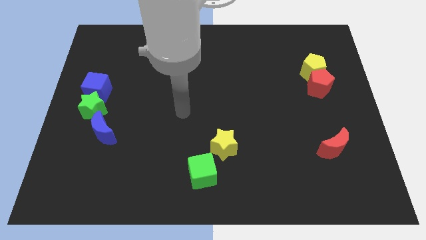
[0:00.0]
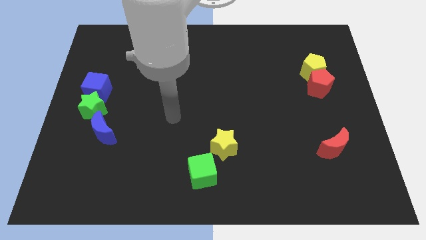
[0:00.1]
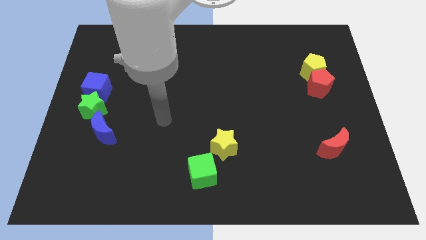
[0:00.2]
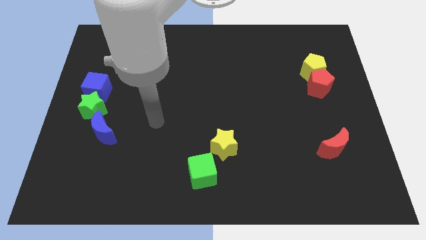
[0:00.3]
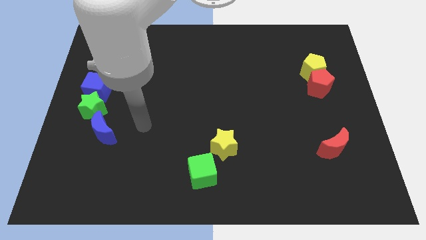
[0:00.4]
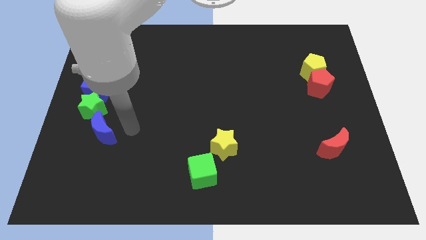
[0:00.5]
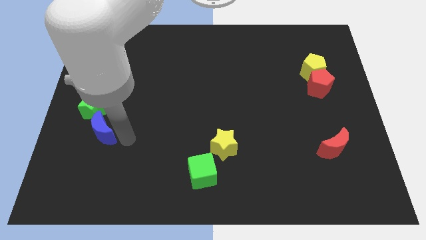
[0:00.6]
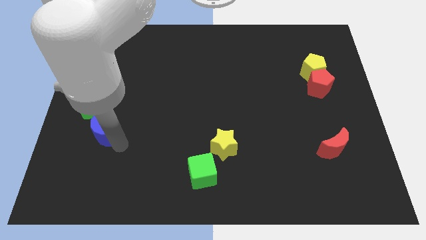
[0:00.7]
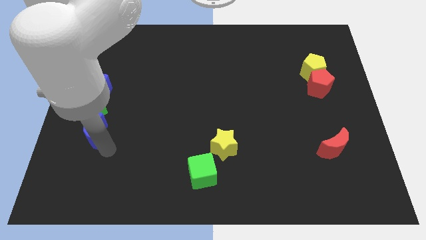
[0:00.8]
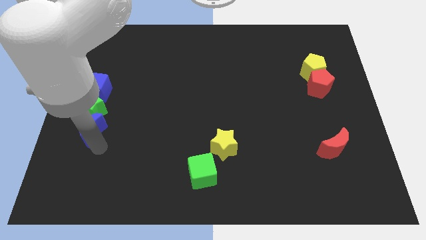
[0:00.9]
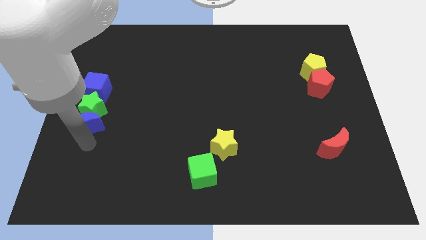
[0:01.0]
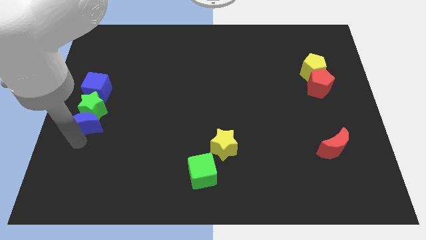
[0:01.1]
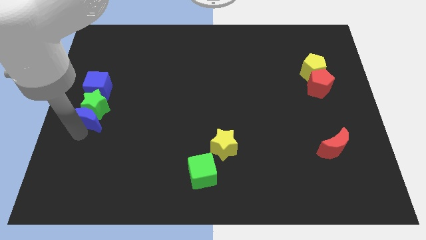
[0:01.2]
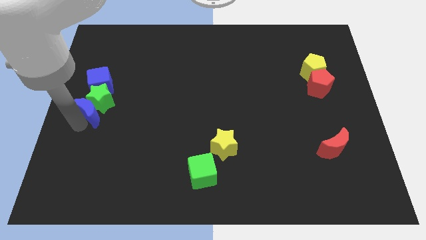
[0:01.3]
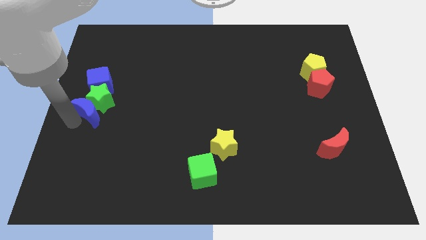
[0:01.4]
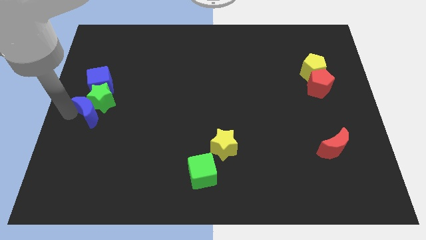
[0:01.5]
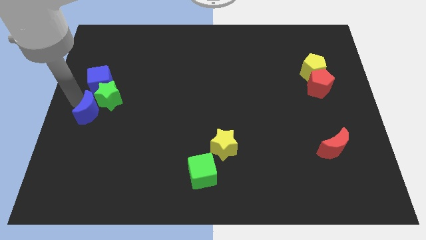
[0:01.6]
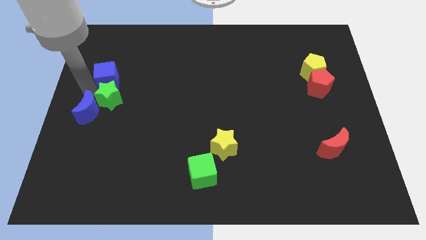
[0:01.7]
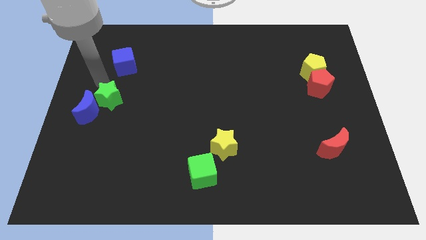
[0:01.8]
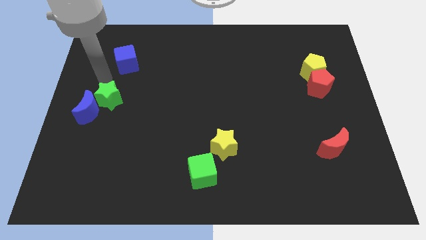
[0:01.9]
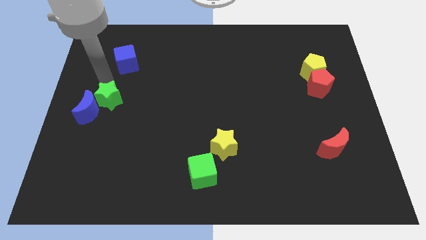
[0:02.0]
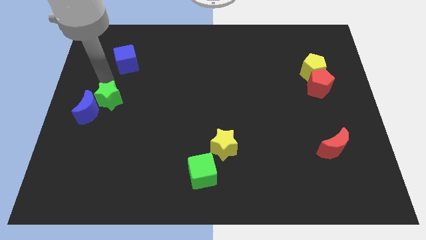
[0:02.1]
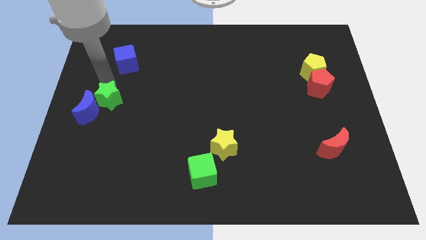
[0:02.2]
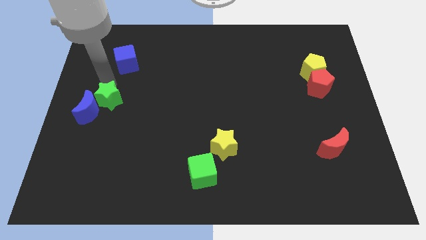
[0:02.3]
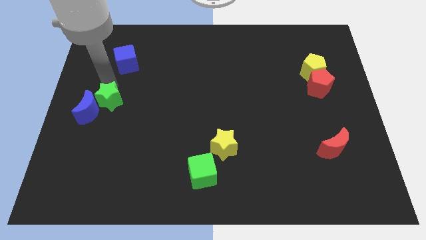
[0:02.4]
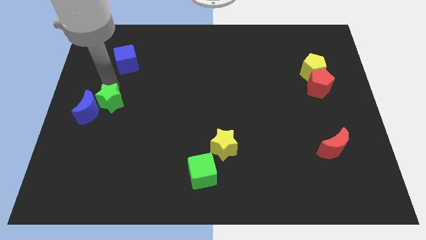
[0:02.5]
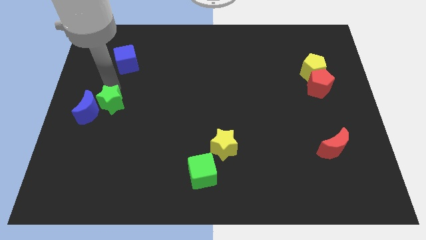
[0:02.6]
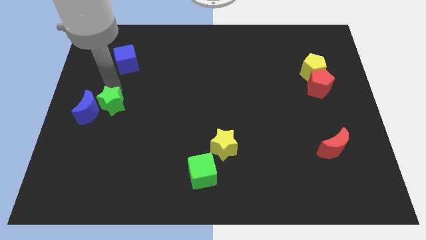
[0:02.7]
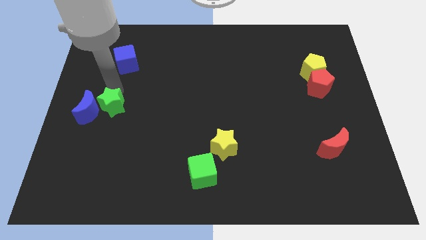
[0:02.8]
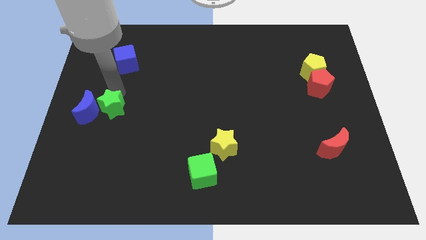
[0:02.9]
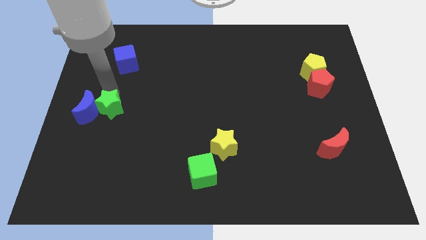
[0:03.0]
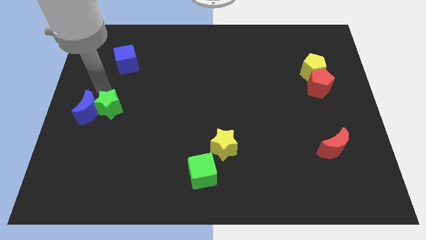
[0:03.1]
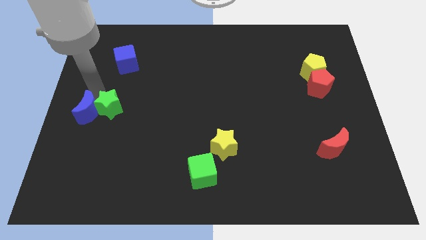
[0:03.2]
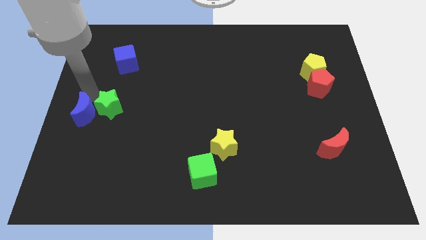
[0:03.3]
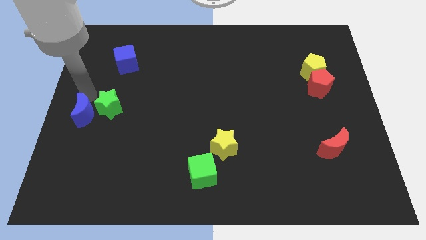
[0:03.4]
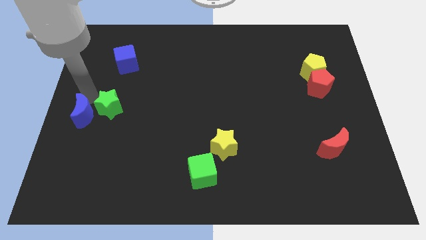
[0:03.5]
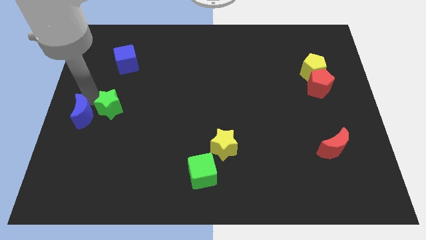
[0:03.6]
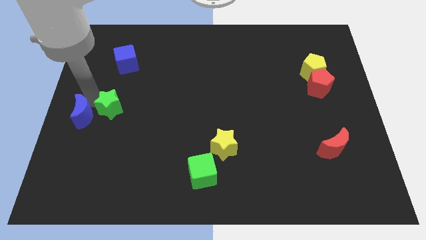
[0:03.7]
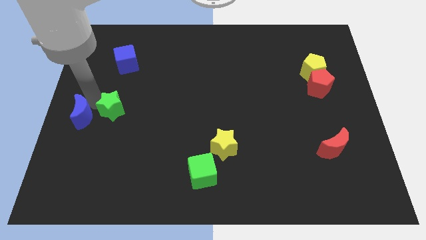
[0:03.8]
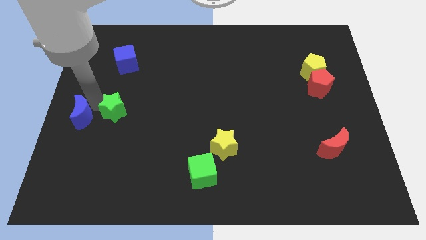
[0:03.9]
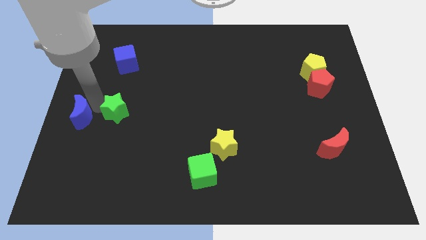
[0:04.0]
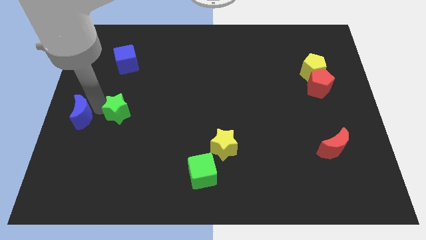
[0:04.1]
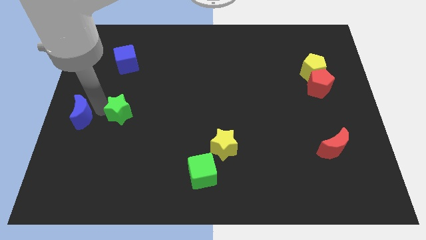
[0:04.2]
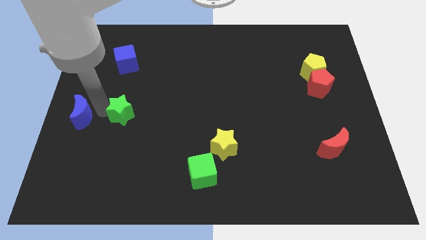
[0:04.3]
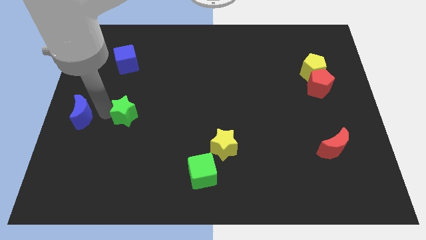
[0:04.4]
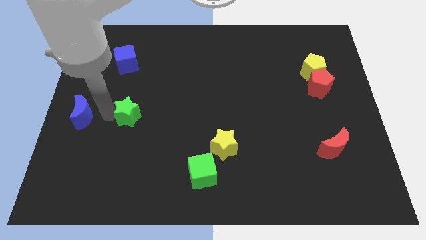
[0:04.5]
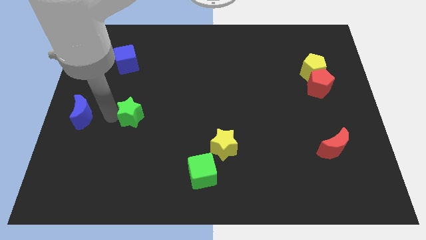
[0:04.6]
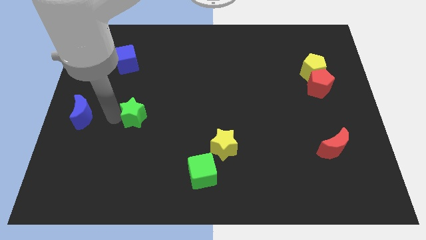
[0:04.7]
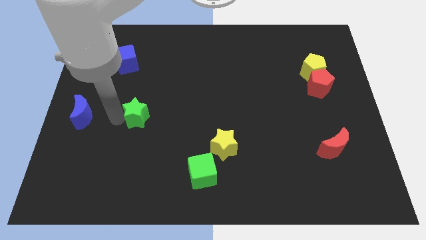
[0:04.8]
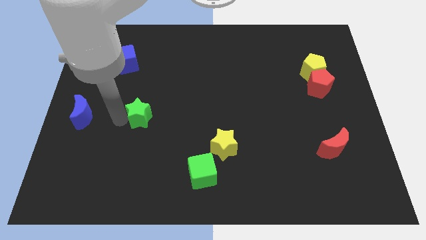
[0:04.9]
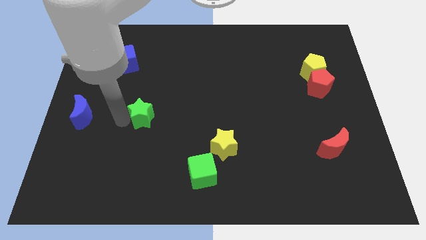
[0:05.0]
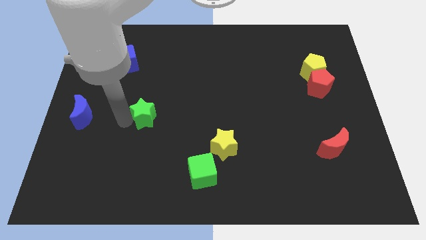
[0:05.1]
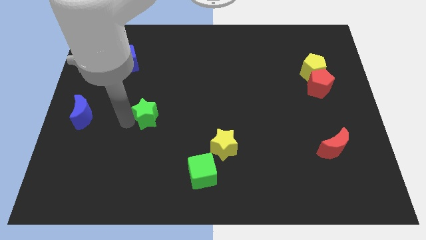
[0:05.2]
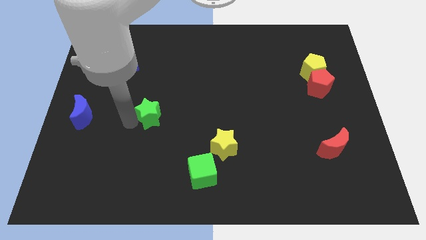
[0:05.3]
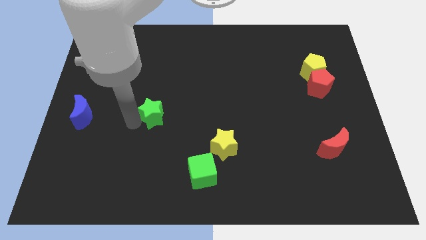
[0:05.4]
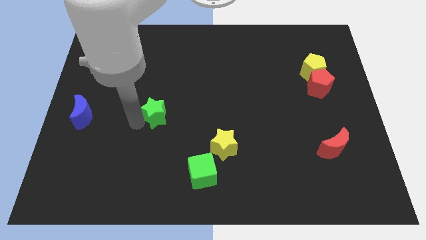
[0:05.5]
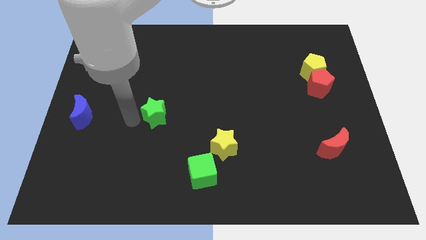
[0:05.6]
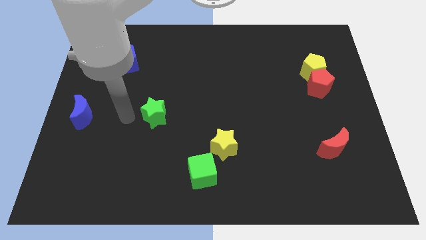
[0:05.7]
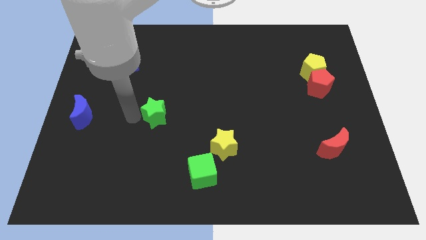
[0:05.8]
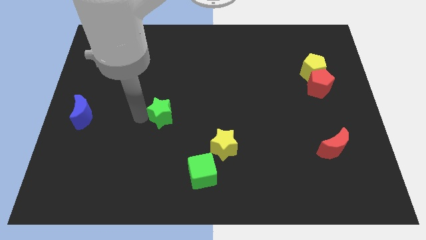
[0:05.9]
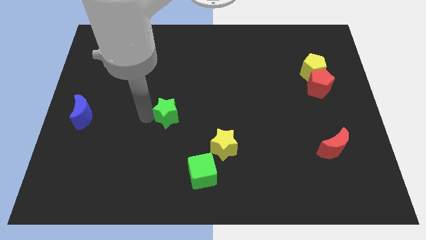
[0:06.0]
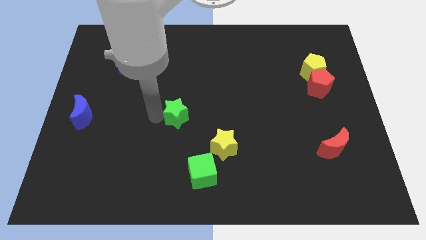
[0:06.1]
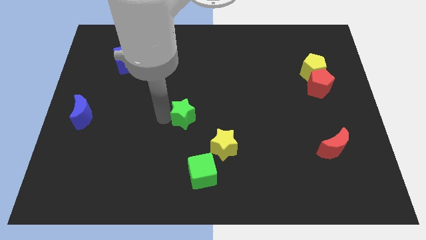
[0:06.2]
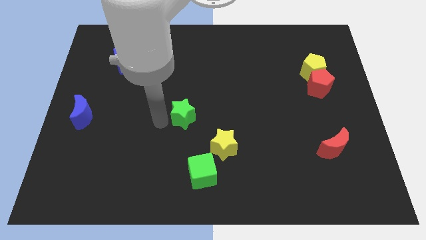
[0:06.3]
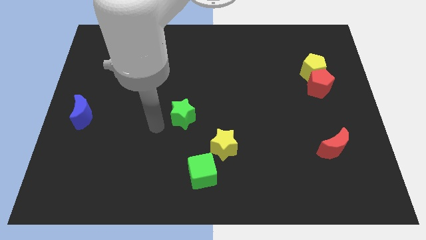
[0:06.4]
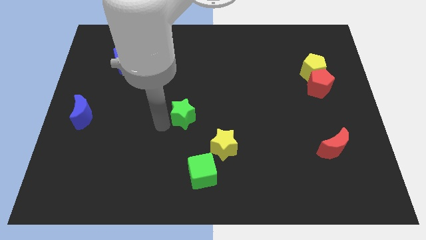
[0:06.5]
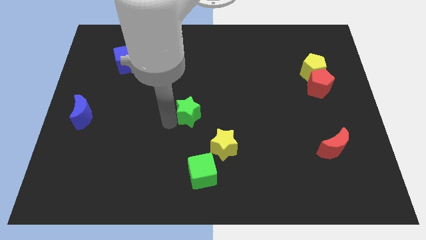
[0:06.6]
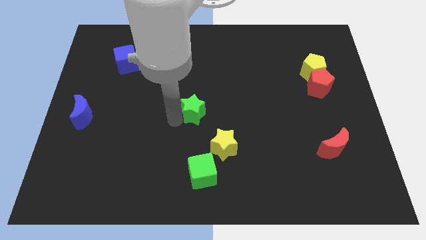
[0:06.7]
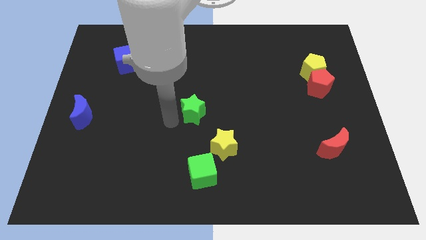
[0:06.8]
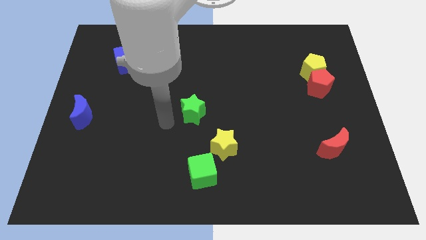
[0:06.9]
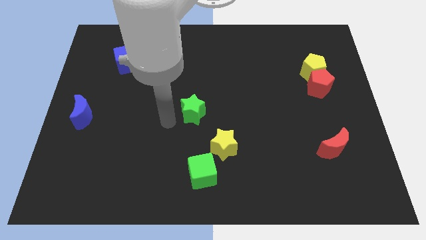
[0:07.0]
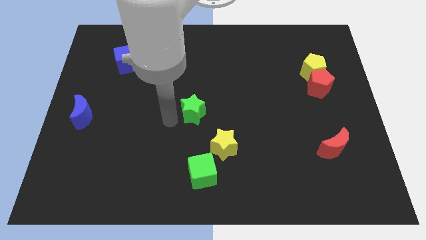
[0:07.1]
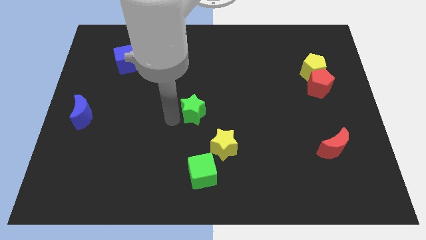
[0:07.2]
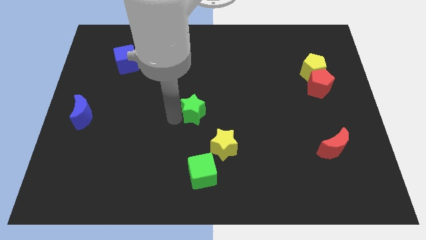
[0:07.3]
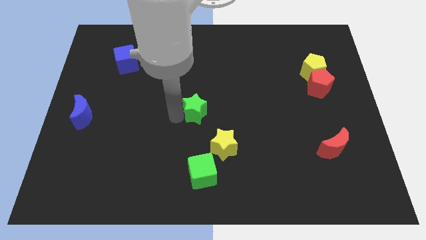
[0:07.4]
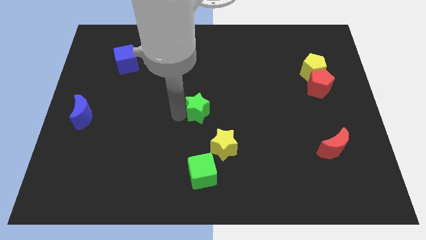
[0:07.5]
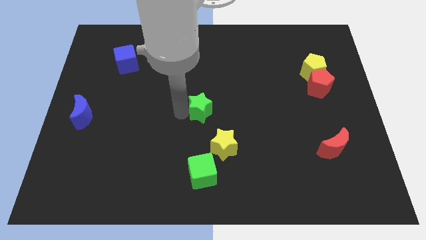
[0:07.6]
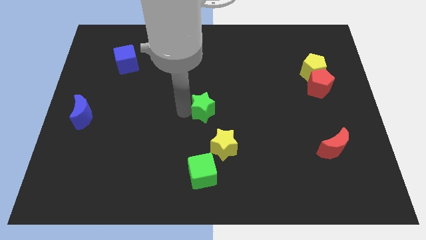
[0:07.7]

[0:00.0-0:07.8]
put the green star to the top of the yellow star
